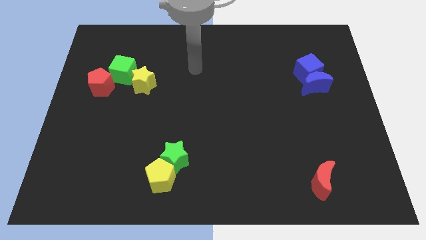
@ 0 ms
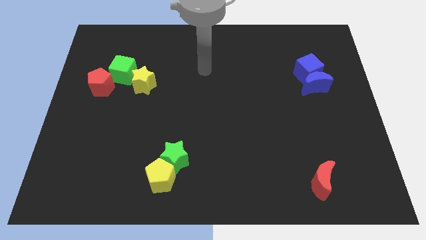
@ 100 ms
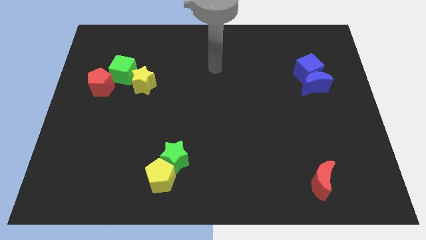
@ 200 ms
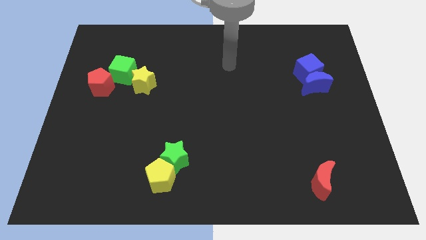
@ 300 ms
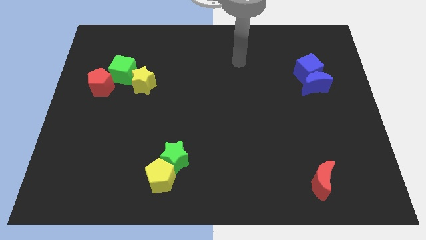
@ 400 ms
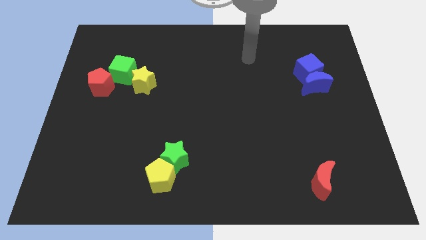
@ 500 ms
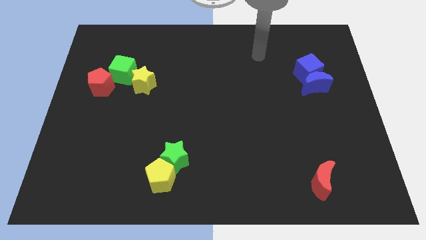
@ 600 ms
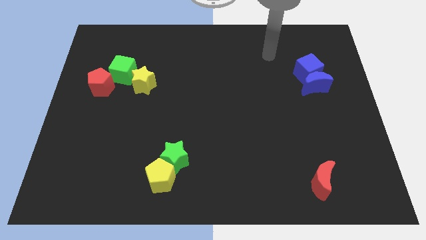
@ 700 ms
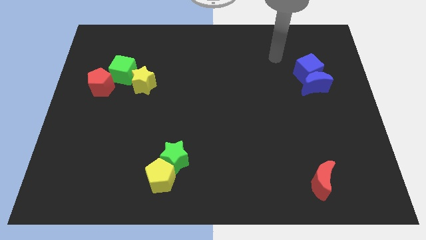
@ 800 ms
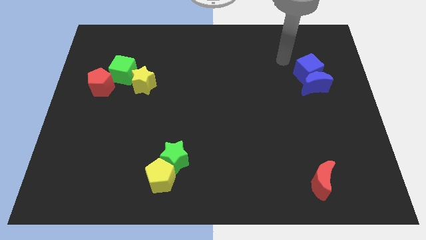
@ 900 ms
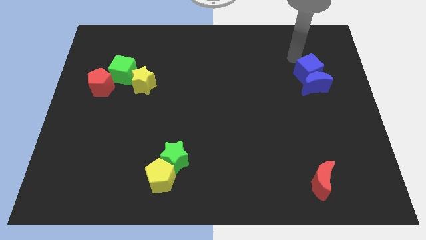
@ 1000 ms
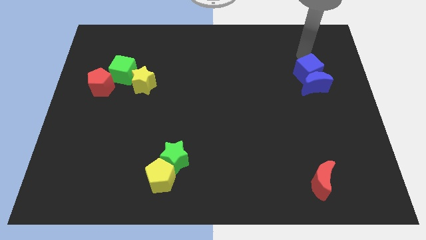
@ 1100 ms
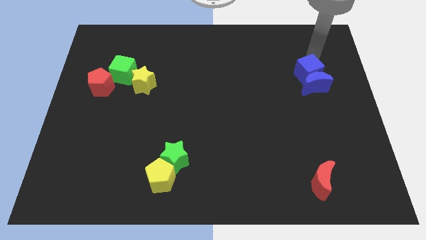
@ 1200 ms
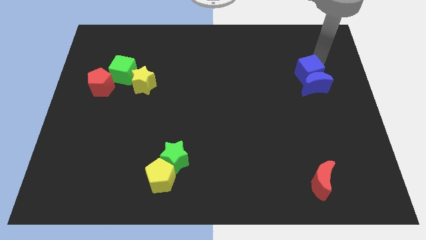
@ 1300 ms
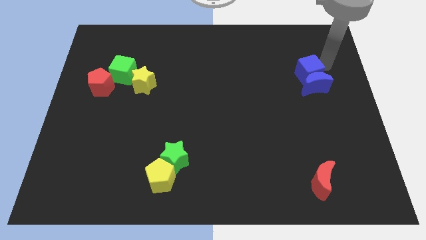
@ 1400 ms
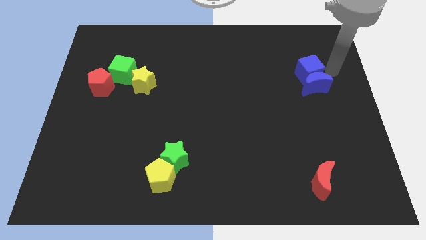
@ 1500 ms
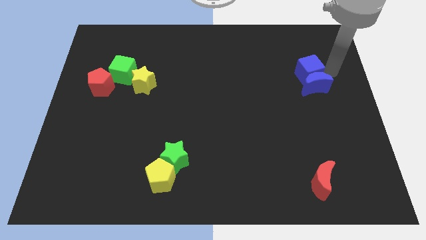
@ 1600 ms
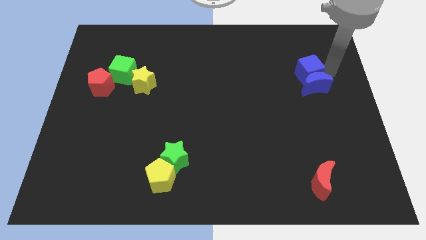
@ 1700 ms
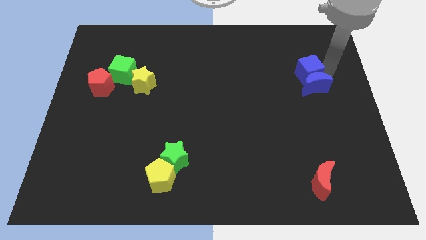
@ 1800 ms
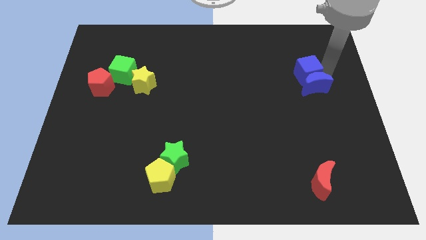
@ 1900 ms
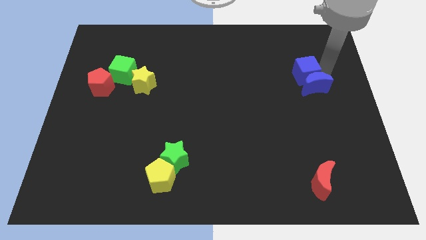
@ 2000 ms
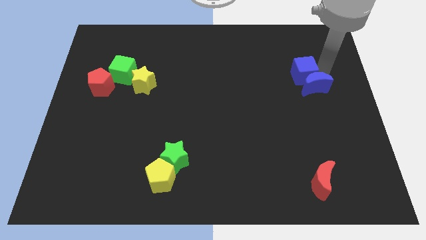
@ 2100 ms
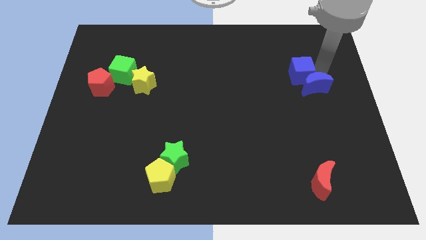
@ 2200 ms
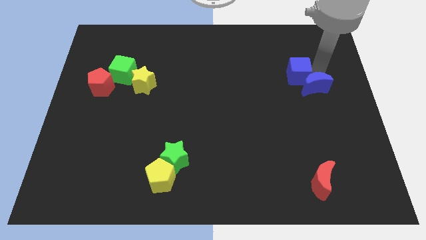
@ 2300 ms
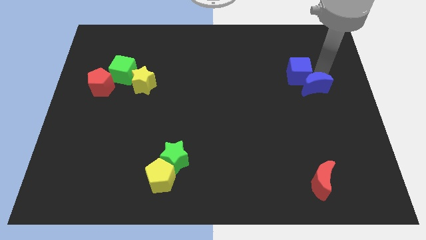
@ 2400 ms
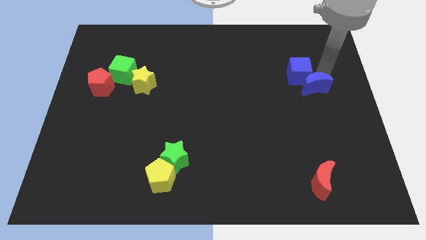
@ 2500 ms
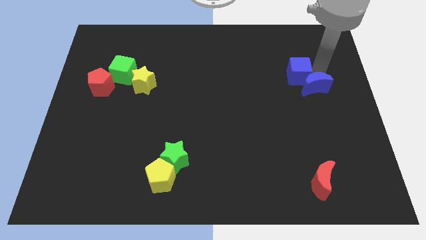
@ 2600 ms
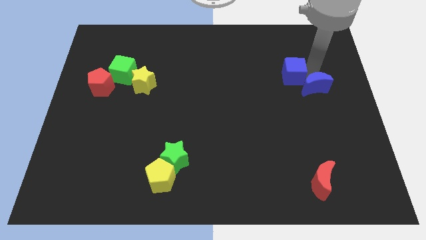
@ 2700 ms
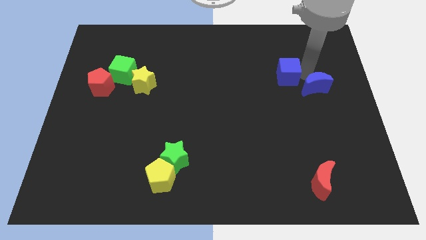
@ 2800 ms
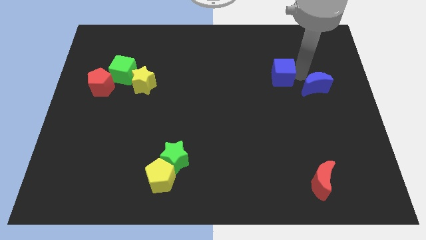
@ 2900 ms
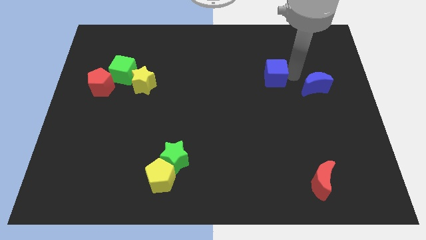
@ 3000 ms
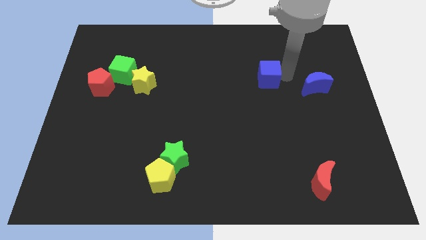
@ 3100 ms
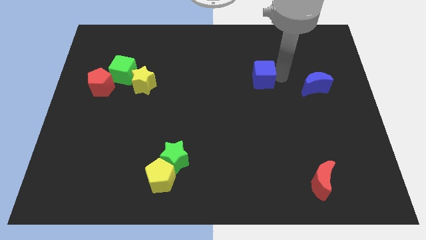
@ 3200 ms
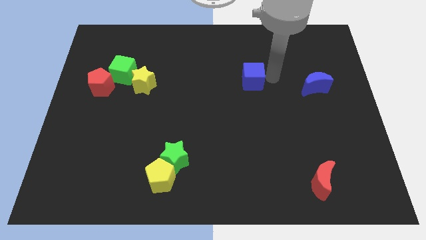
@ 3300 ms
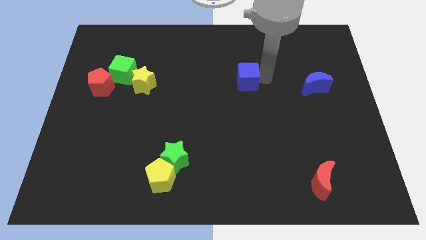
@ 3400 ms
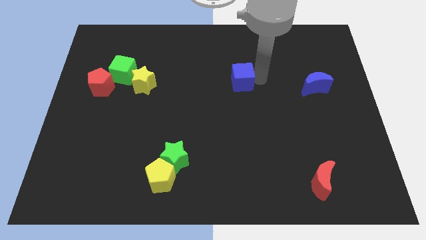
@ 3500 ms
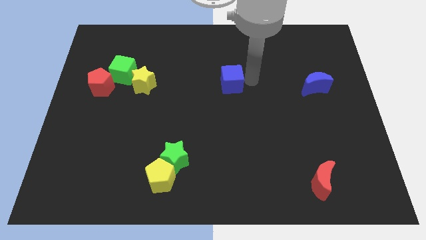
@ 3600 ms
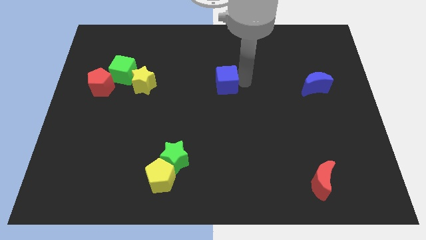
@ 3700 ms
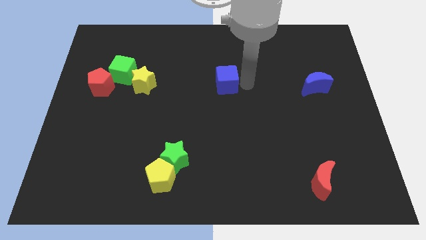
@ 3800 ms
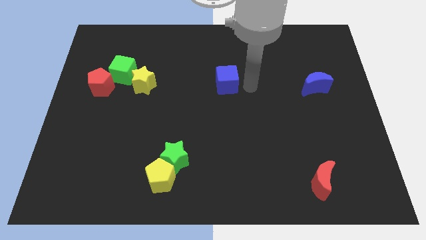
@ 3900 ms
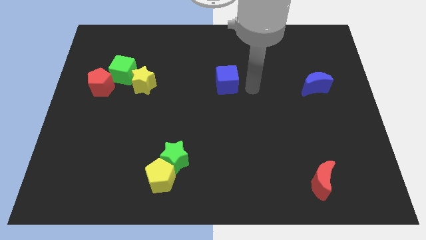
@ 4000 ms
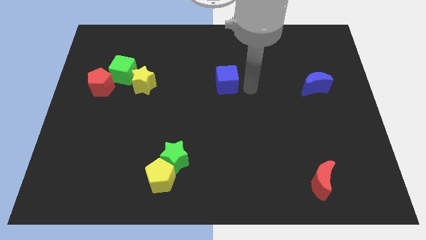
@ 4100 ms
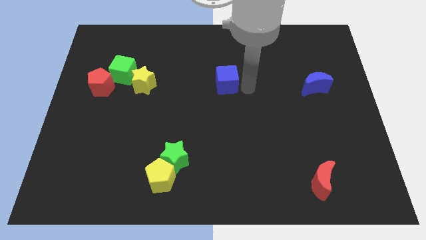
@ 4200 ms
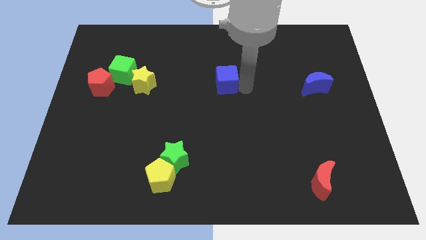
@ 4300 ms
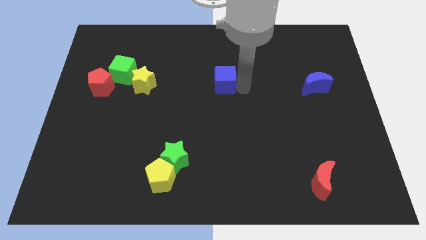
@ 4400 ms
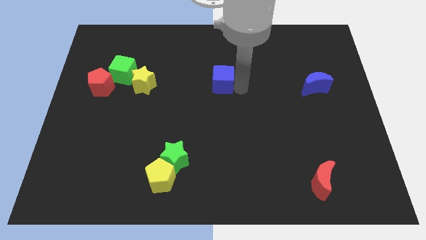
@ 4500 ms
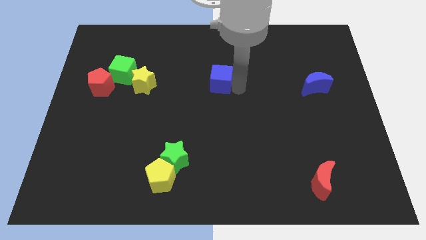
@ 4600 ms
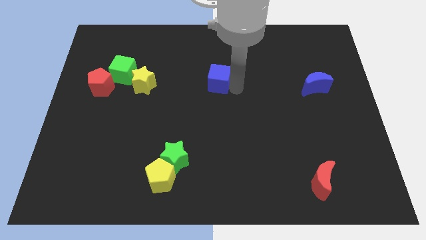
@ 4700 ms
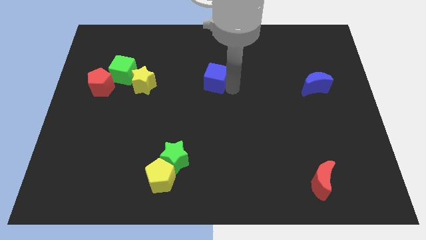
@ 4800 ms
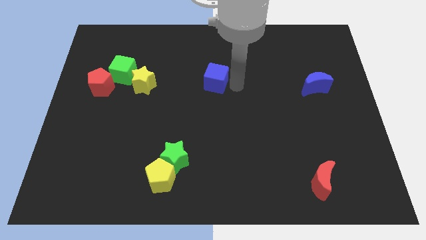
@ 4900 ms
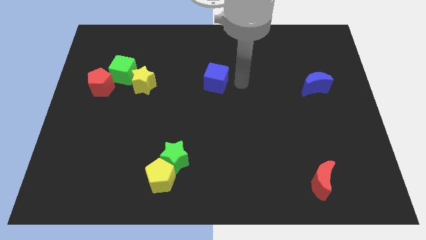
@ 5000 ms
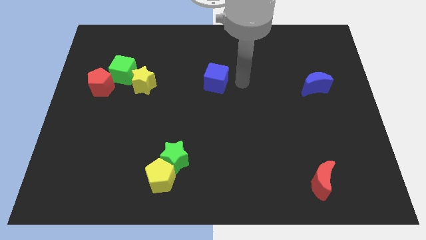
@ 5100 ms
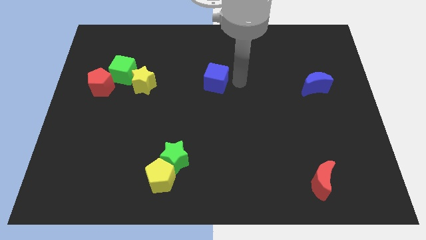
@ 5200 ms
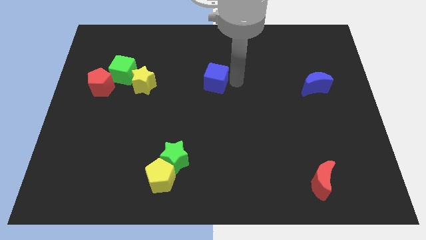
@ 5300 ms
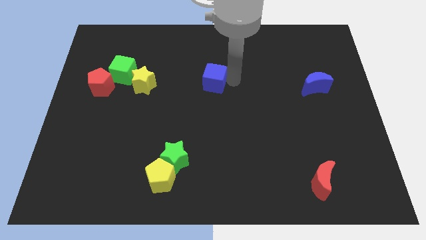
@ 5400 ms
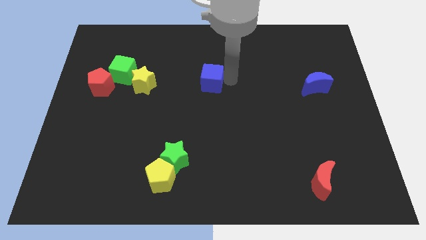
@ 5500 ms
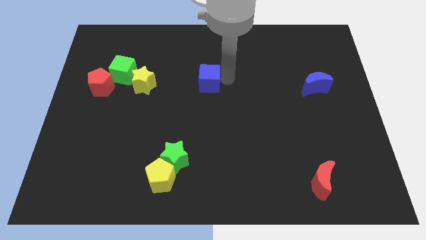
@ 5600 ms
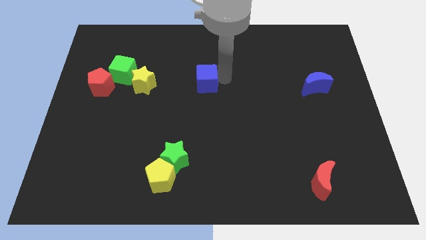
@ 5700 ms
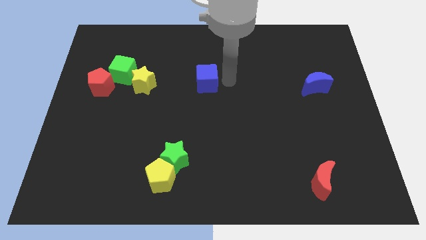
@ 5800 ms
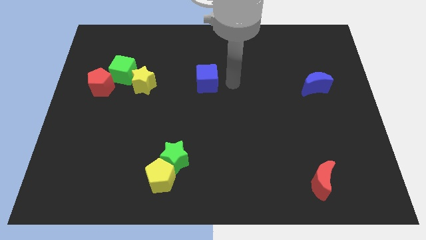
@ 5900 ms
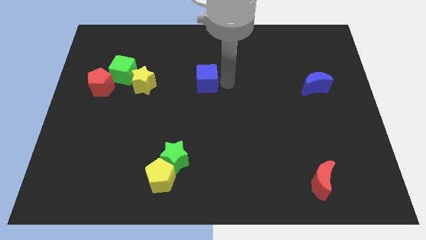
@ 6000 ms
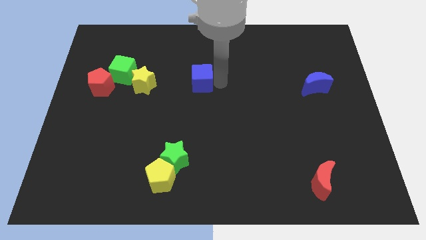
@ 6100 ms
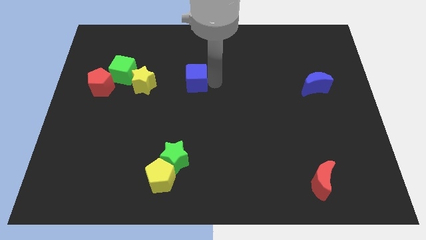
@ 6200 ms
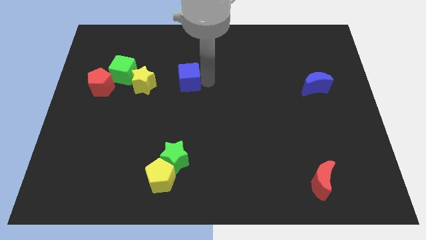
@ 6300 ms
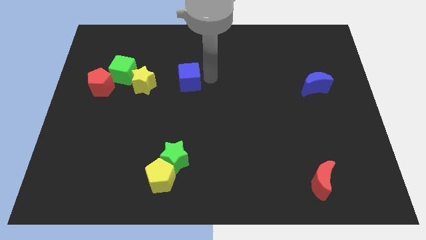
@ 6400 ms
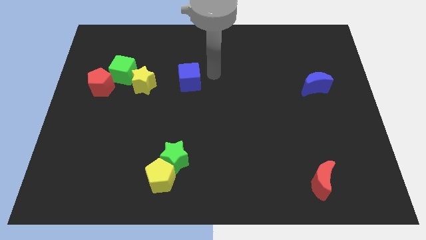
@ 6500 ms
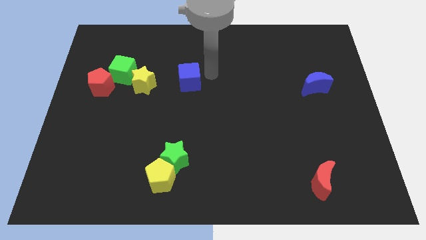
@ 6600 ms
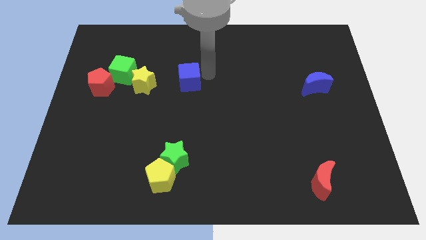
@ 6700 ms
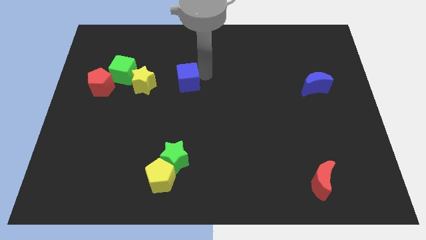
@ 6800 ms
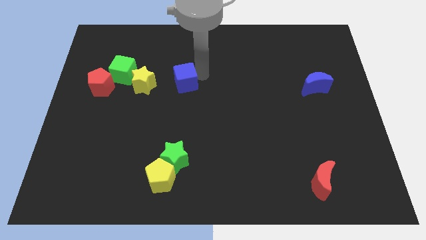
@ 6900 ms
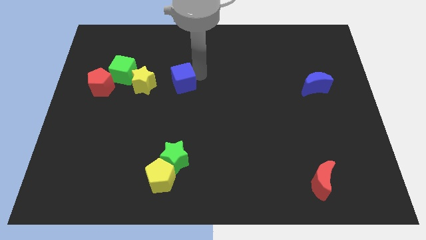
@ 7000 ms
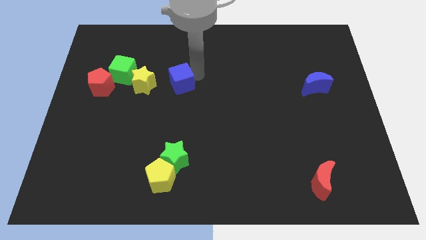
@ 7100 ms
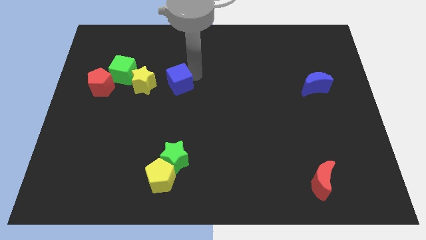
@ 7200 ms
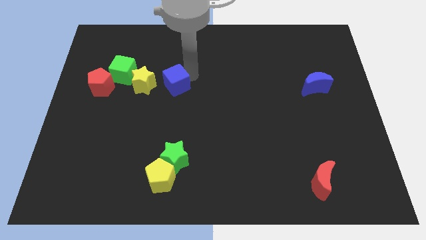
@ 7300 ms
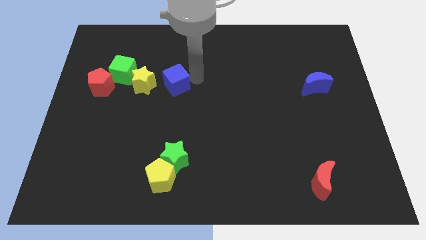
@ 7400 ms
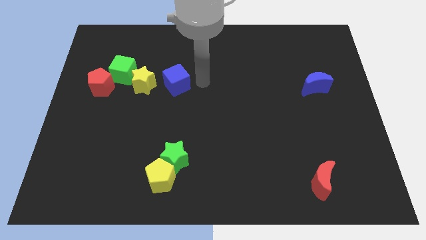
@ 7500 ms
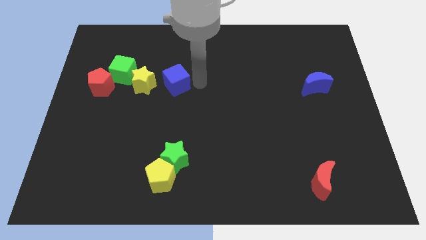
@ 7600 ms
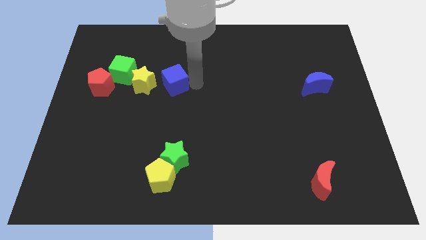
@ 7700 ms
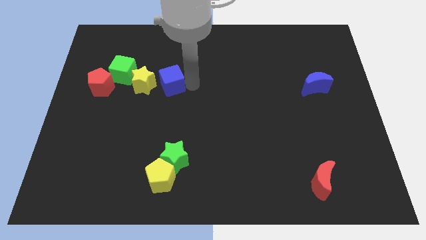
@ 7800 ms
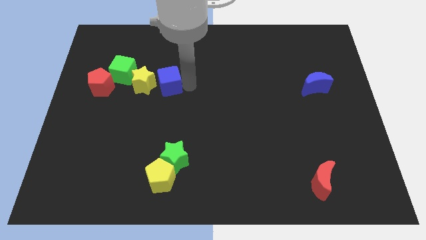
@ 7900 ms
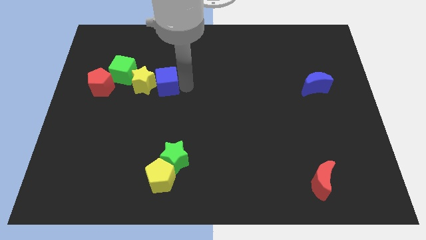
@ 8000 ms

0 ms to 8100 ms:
put the blue cube to the yellow star

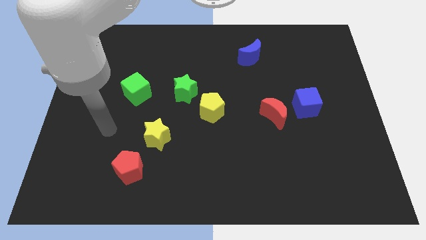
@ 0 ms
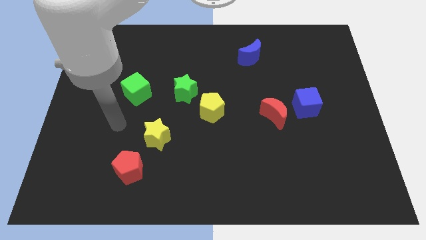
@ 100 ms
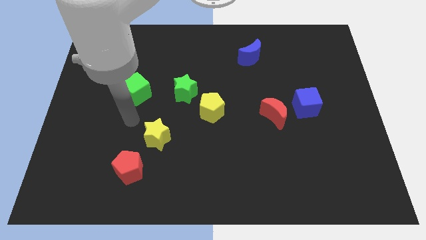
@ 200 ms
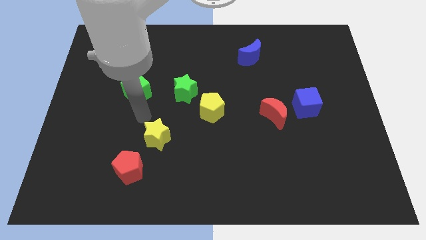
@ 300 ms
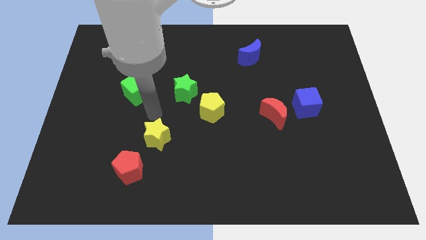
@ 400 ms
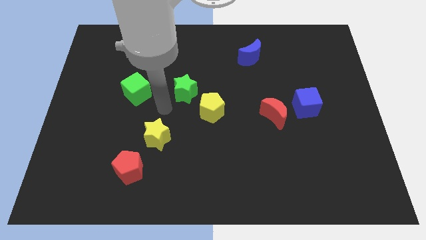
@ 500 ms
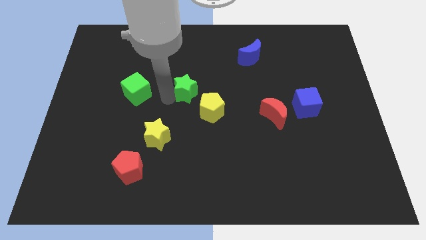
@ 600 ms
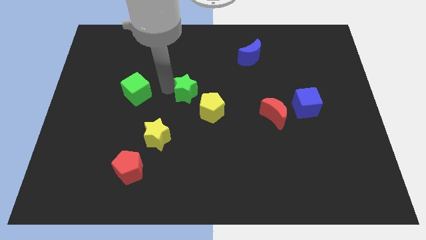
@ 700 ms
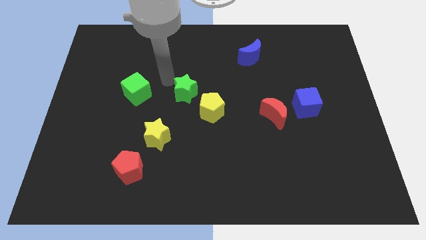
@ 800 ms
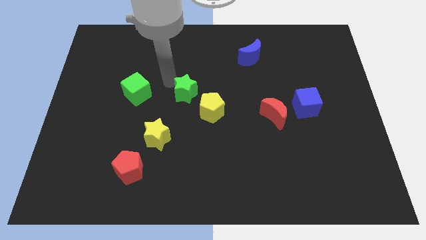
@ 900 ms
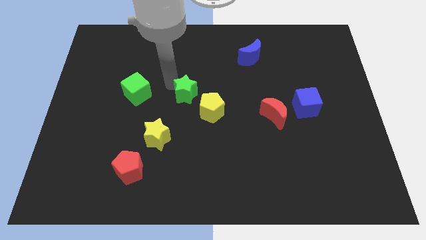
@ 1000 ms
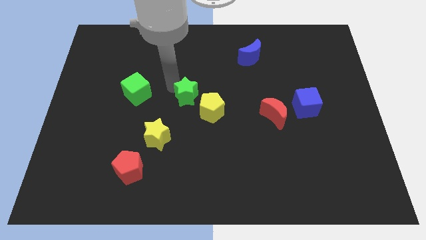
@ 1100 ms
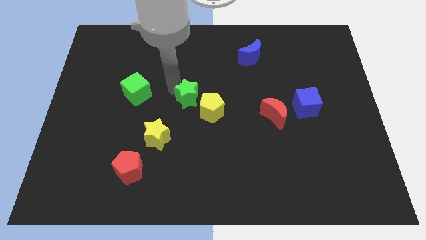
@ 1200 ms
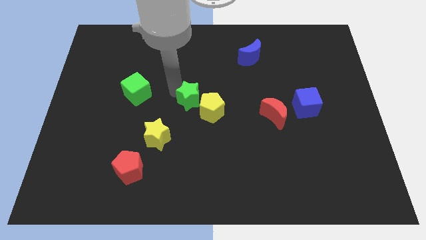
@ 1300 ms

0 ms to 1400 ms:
slide the green star next to the yellow pentagon
